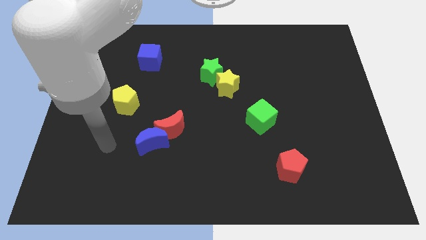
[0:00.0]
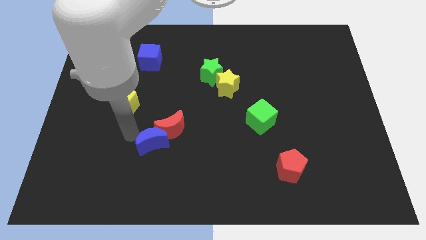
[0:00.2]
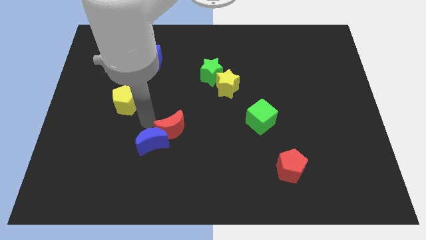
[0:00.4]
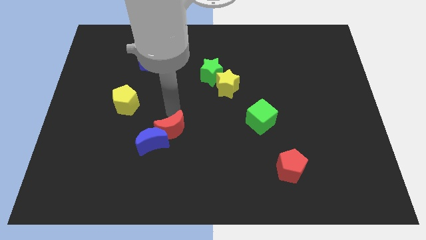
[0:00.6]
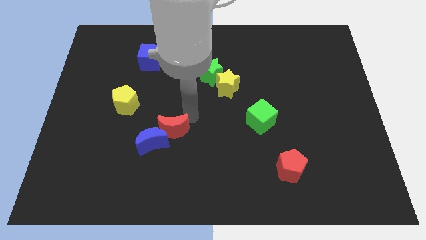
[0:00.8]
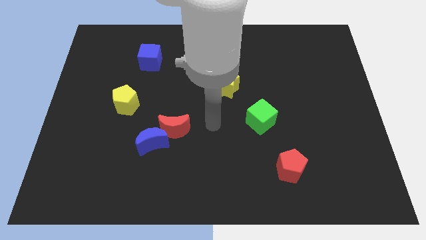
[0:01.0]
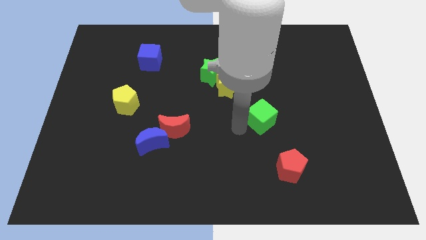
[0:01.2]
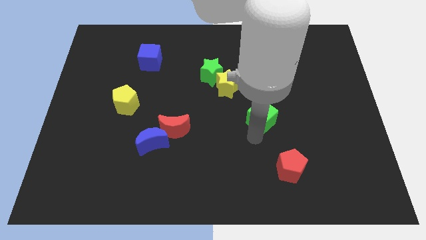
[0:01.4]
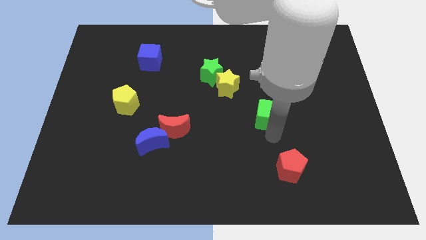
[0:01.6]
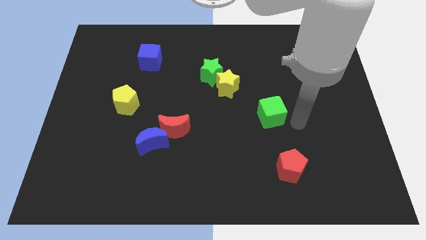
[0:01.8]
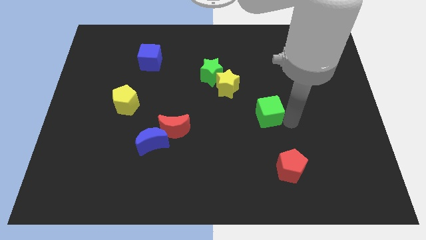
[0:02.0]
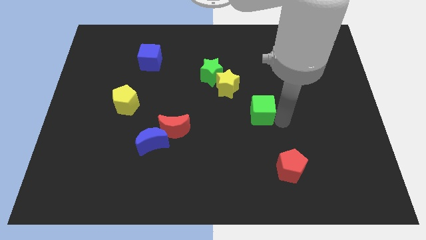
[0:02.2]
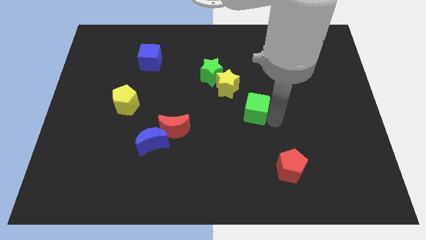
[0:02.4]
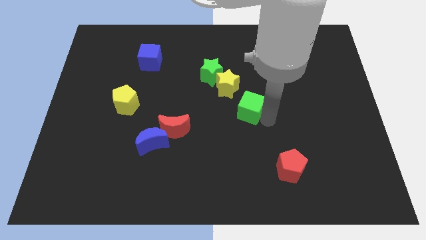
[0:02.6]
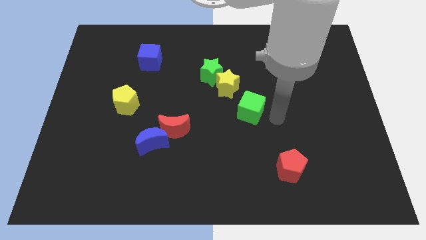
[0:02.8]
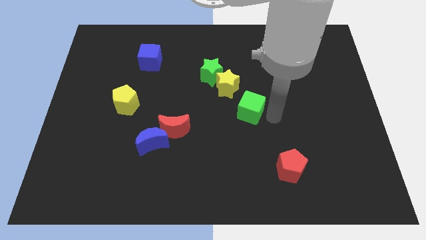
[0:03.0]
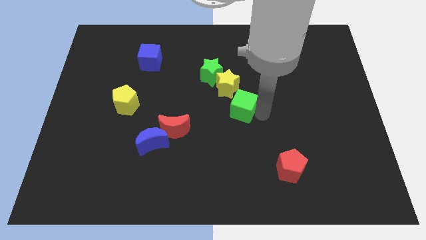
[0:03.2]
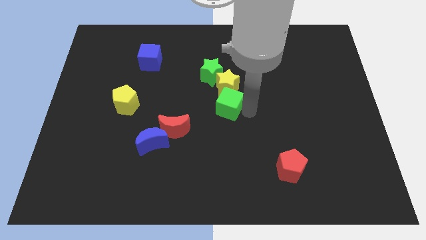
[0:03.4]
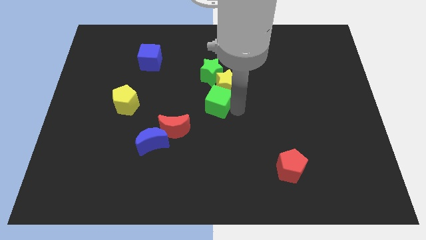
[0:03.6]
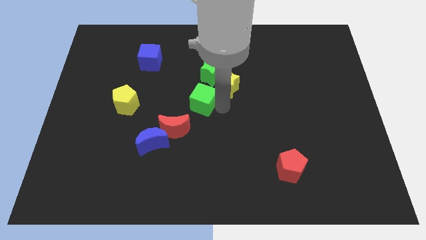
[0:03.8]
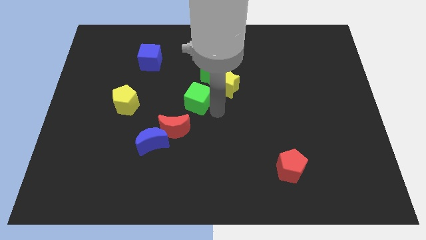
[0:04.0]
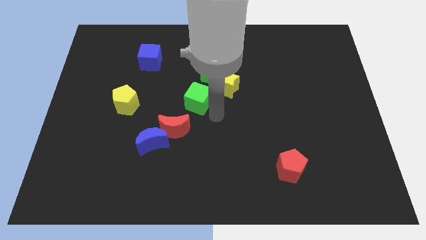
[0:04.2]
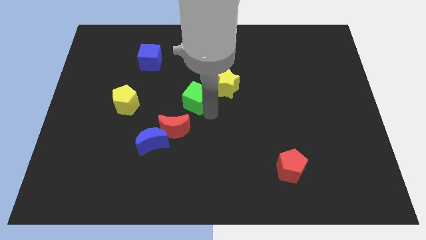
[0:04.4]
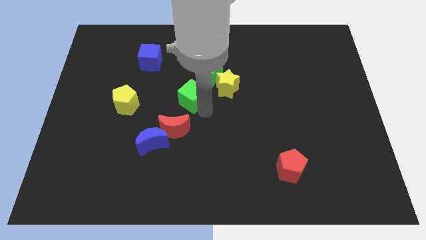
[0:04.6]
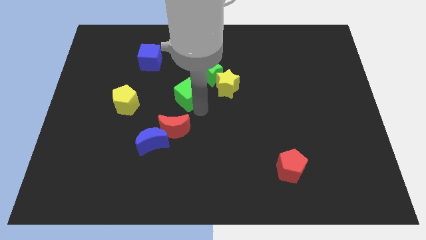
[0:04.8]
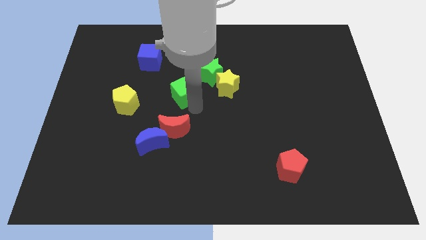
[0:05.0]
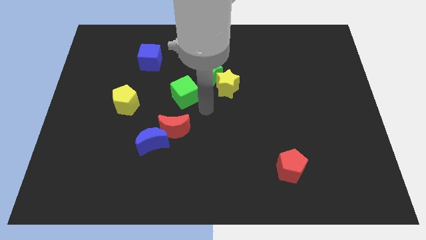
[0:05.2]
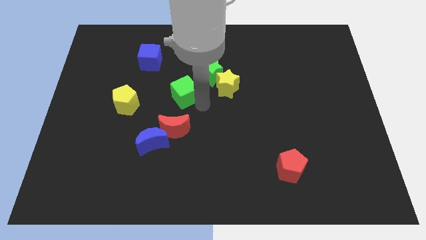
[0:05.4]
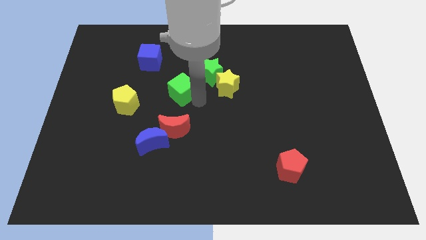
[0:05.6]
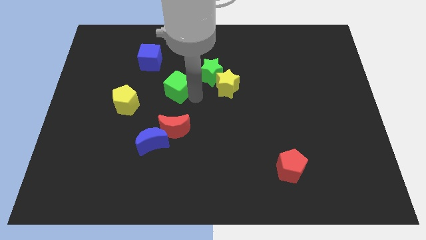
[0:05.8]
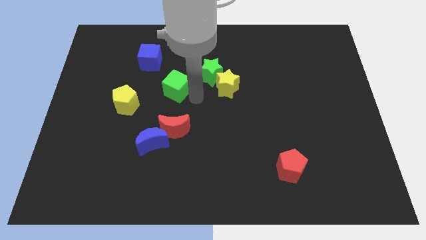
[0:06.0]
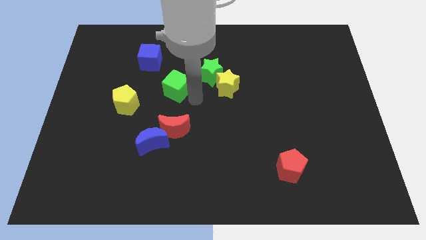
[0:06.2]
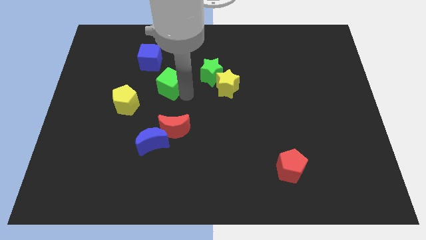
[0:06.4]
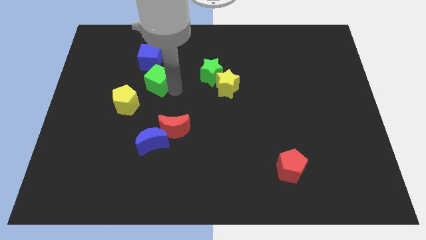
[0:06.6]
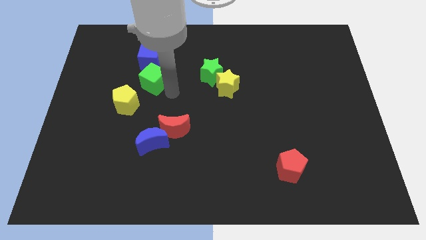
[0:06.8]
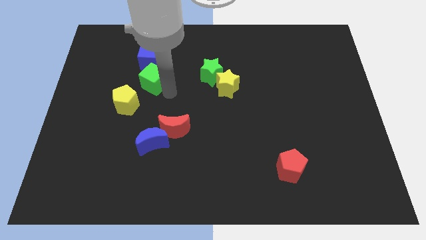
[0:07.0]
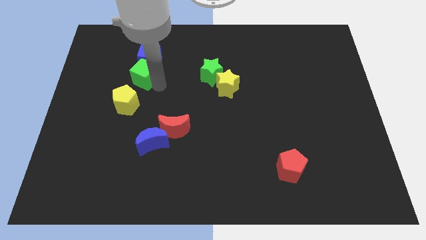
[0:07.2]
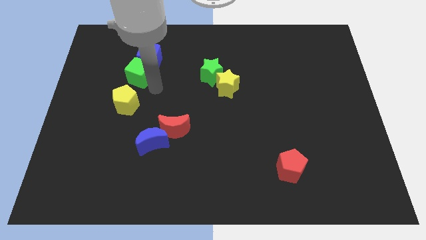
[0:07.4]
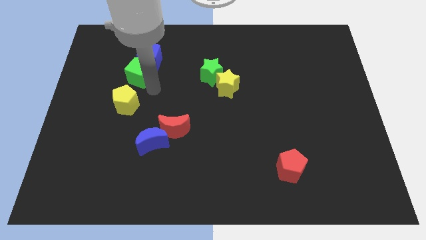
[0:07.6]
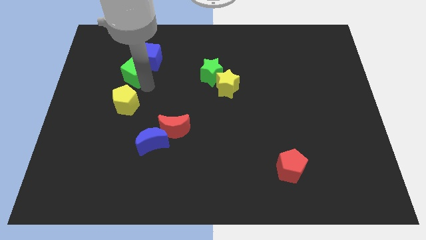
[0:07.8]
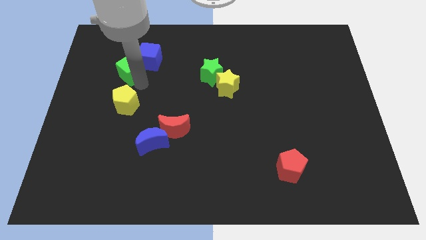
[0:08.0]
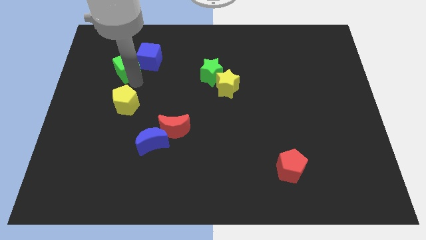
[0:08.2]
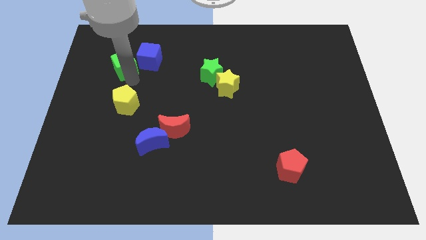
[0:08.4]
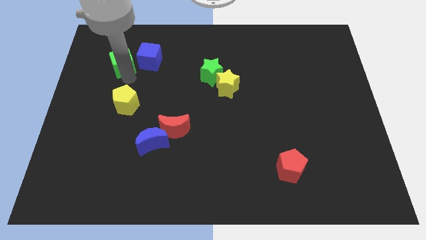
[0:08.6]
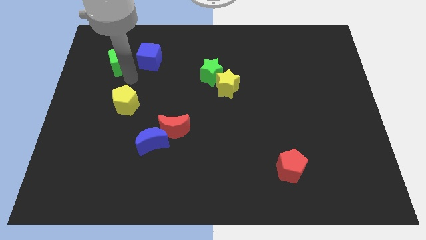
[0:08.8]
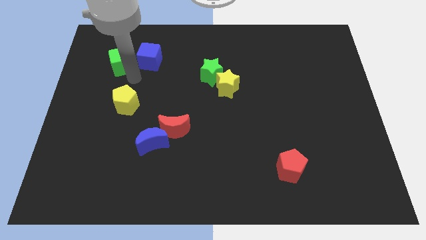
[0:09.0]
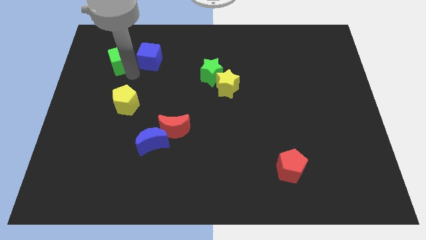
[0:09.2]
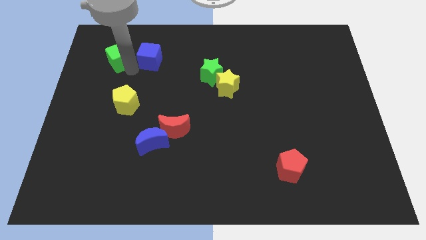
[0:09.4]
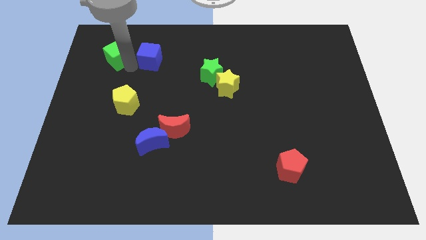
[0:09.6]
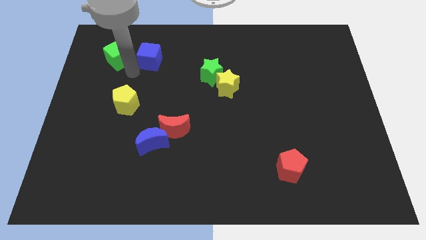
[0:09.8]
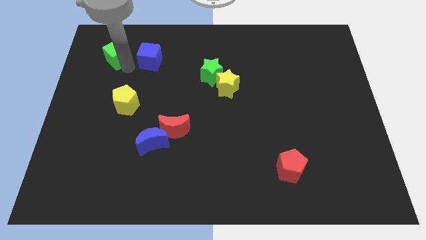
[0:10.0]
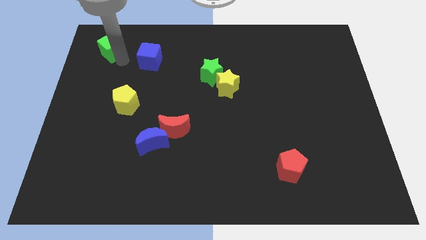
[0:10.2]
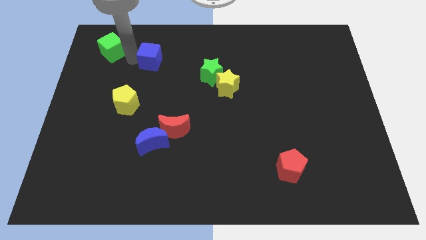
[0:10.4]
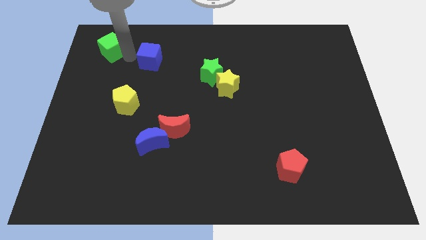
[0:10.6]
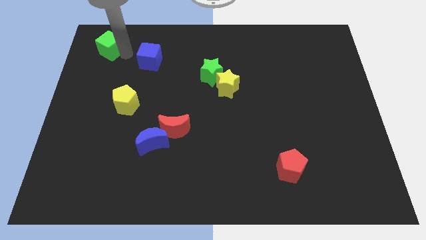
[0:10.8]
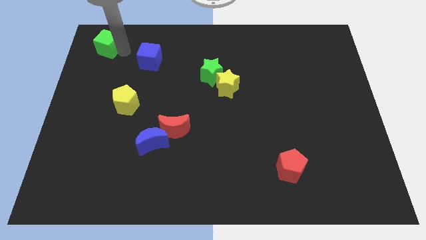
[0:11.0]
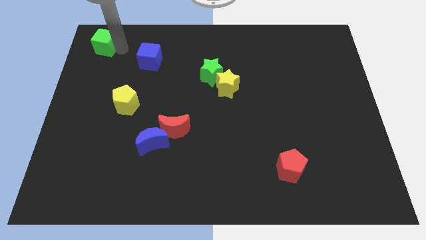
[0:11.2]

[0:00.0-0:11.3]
put the green cube to the top left of the board

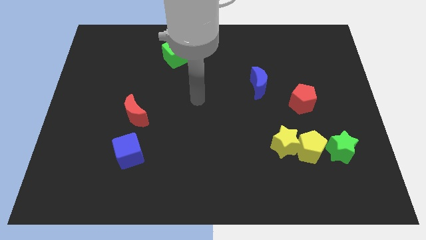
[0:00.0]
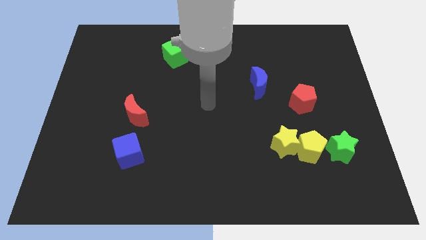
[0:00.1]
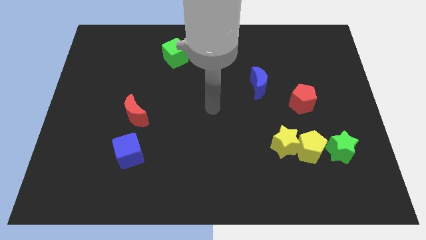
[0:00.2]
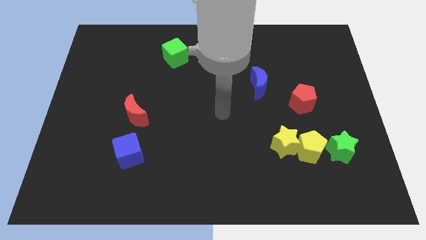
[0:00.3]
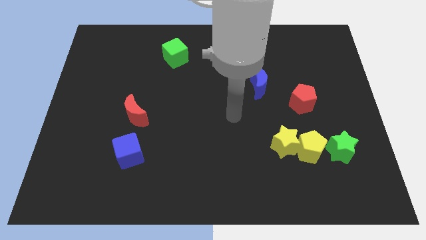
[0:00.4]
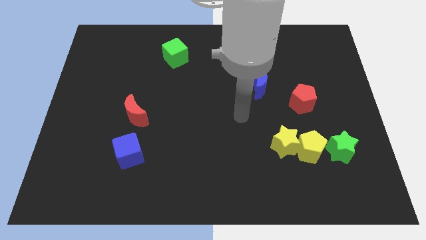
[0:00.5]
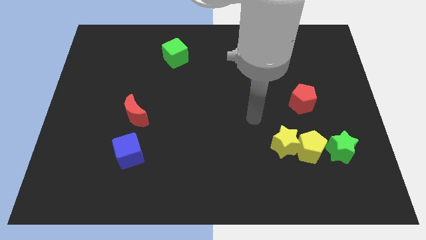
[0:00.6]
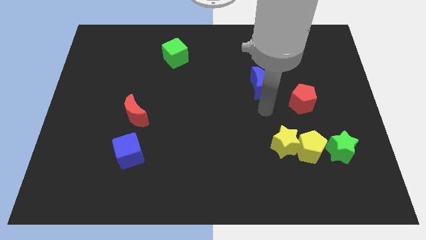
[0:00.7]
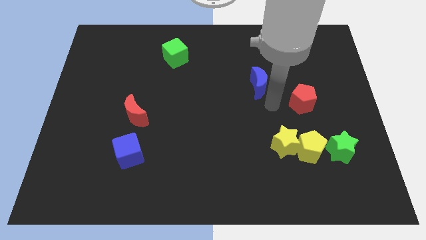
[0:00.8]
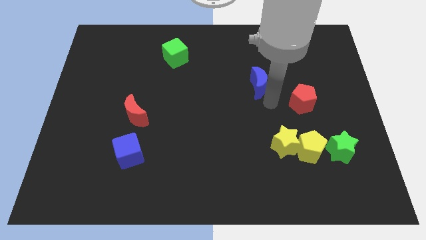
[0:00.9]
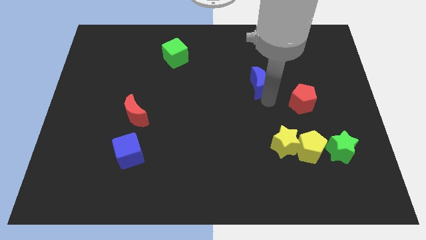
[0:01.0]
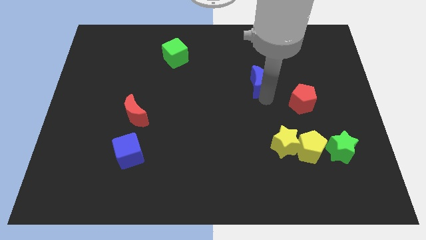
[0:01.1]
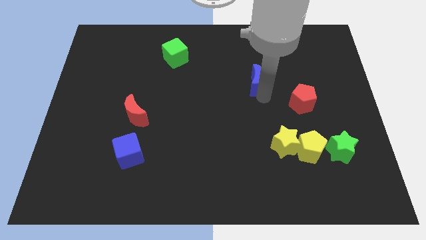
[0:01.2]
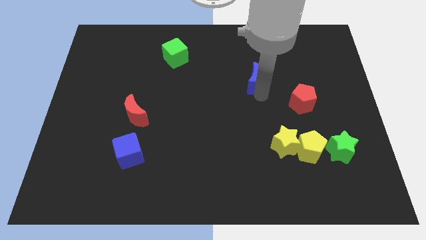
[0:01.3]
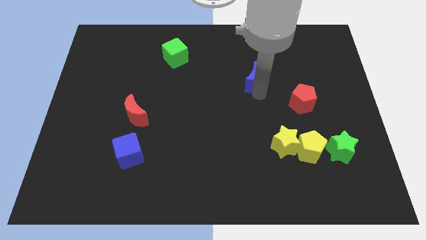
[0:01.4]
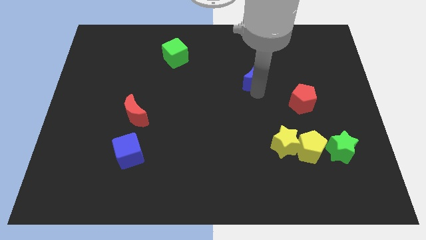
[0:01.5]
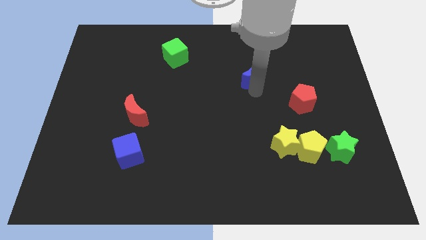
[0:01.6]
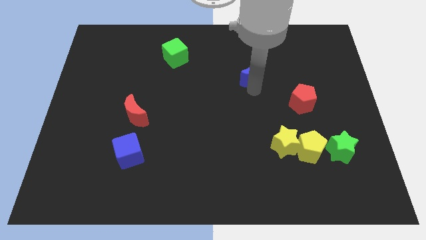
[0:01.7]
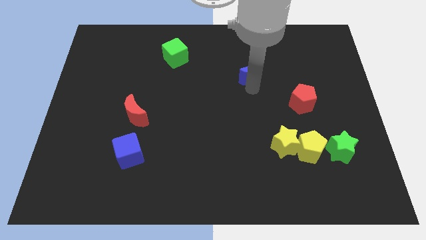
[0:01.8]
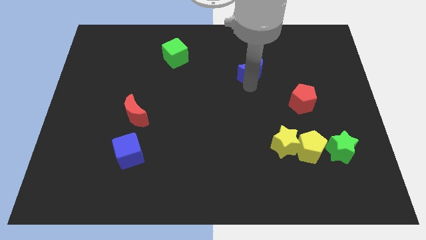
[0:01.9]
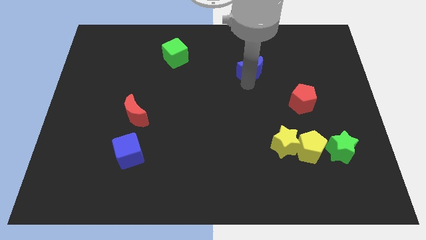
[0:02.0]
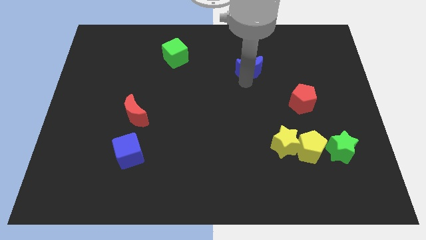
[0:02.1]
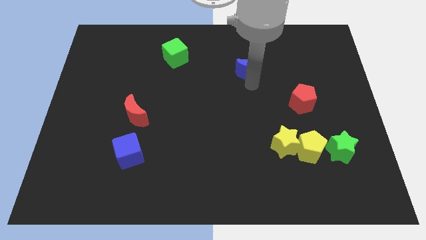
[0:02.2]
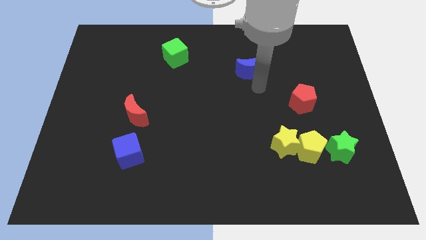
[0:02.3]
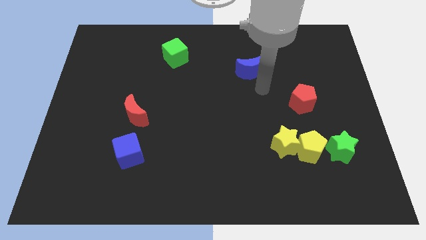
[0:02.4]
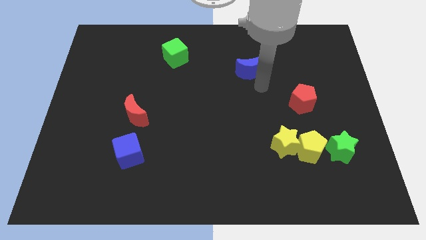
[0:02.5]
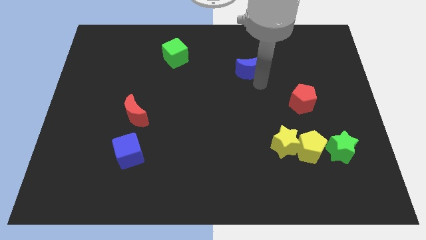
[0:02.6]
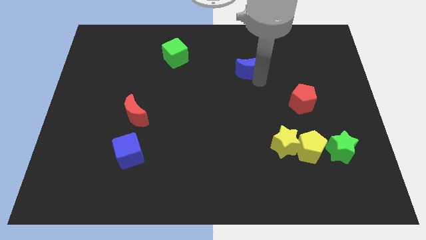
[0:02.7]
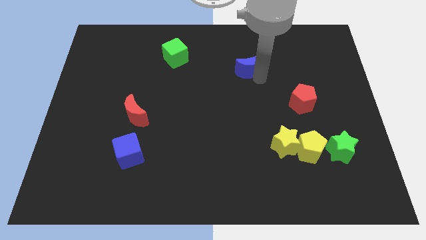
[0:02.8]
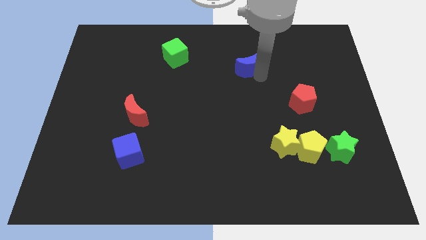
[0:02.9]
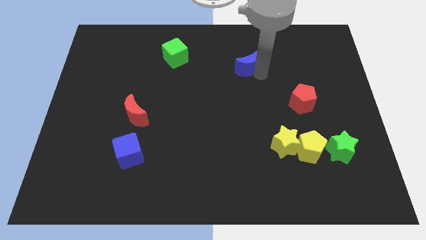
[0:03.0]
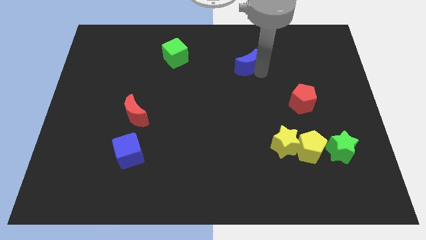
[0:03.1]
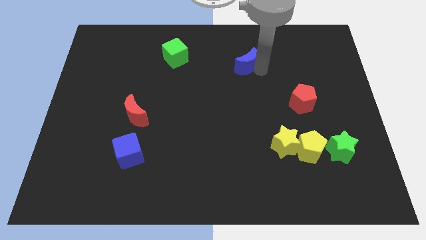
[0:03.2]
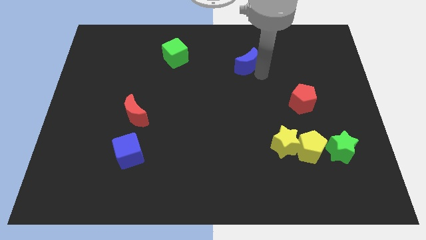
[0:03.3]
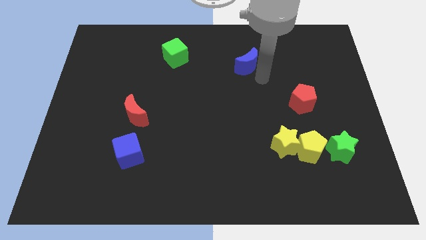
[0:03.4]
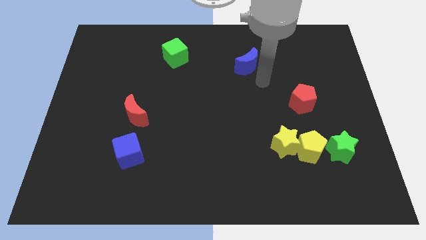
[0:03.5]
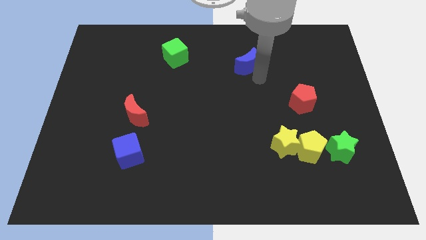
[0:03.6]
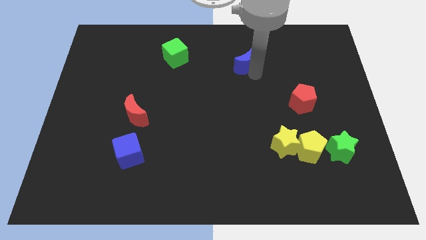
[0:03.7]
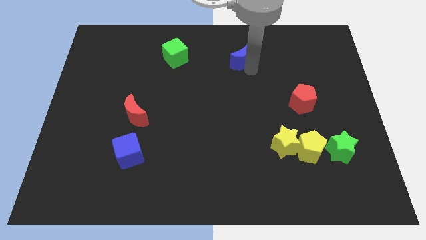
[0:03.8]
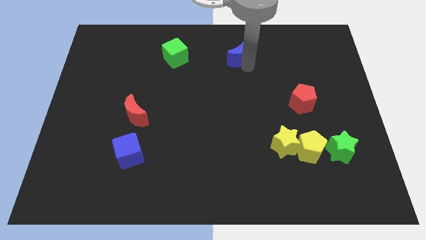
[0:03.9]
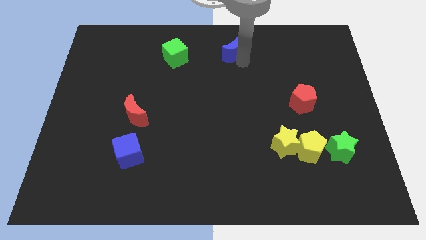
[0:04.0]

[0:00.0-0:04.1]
slide the blue moon to the towards your base
